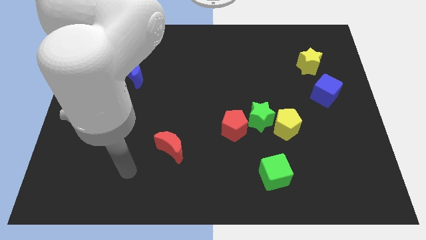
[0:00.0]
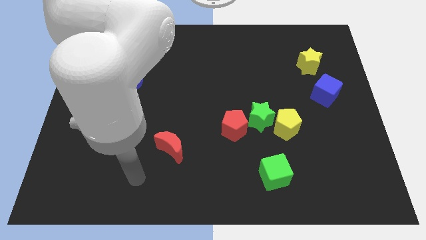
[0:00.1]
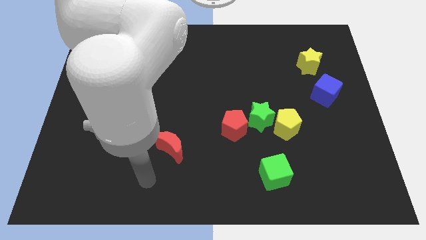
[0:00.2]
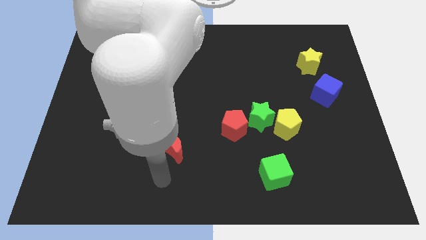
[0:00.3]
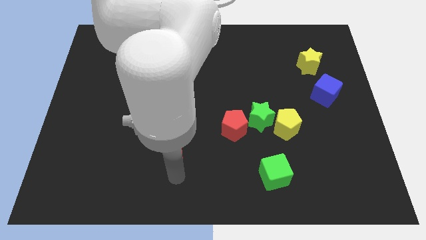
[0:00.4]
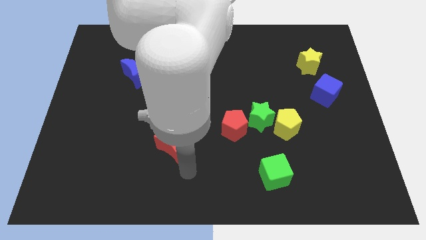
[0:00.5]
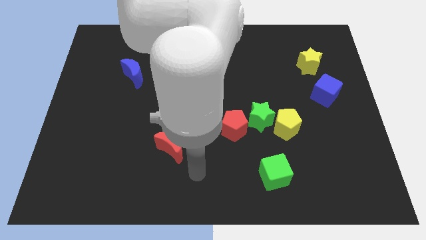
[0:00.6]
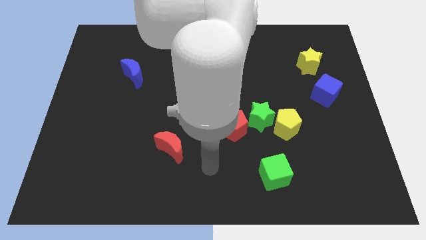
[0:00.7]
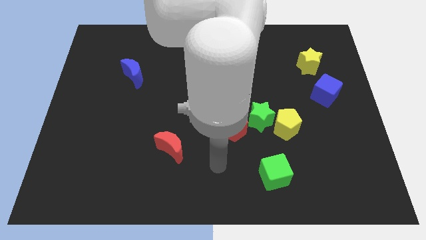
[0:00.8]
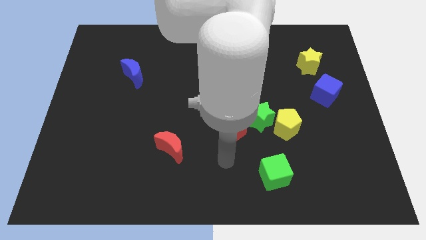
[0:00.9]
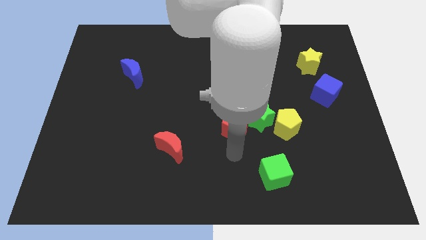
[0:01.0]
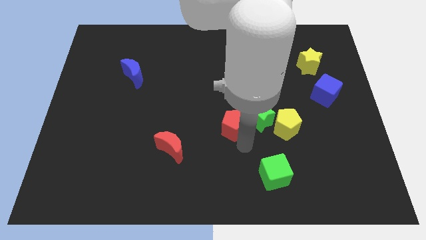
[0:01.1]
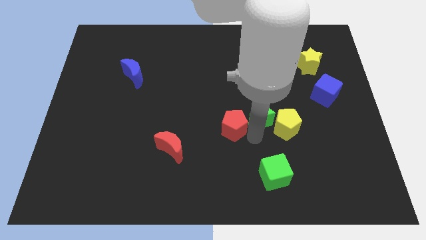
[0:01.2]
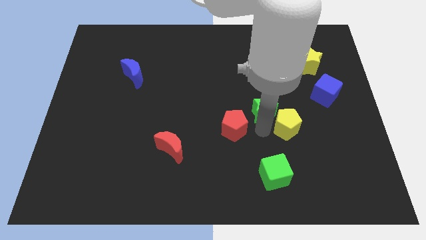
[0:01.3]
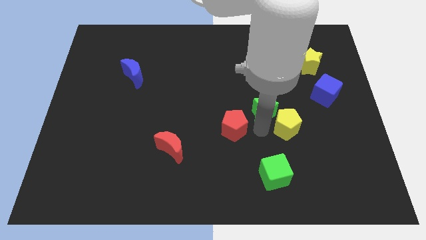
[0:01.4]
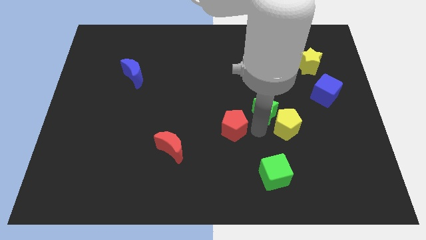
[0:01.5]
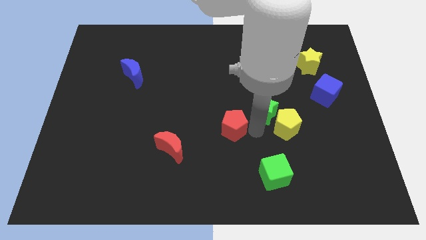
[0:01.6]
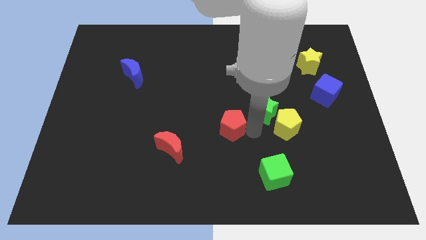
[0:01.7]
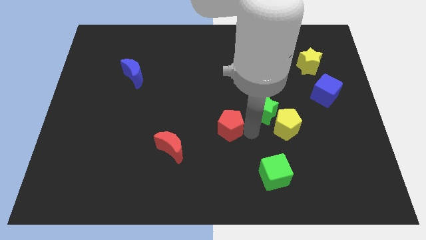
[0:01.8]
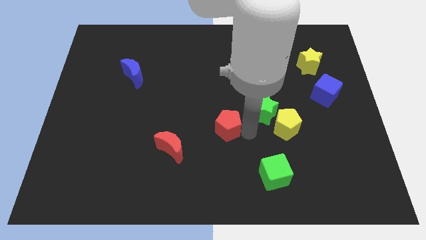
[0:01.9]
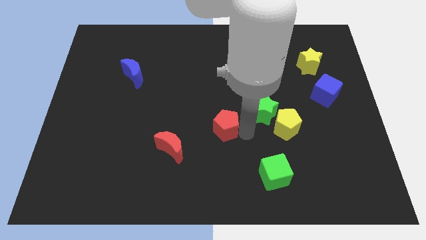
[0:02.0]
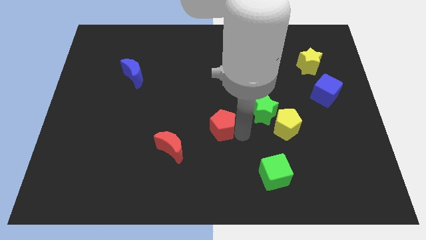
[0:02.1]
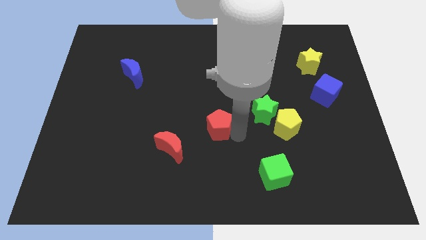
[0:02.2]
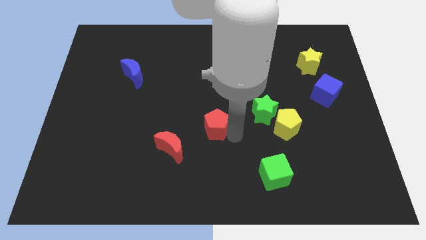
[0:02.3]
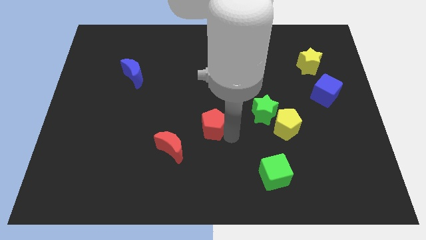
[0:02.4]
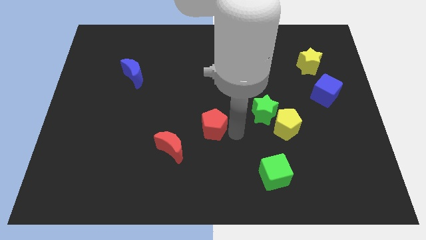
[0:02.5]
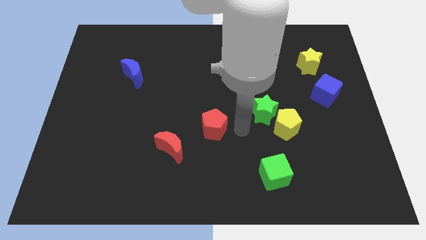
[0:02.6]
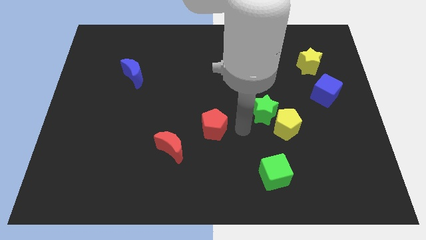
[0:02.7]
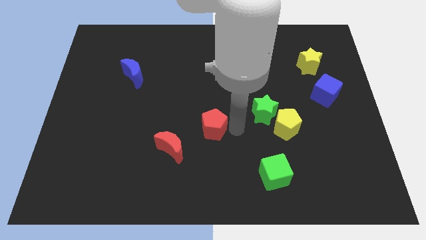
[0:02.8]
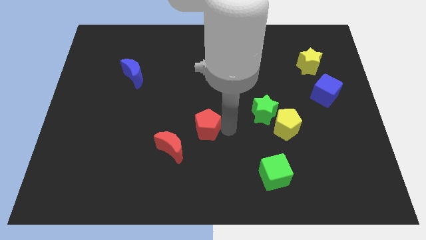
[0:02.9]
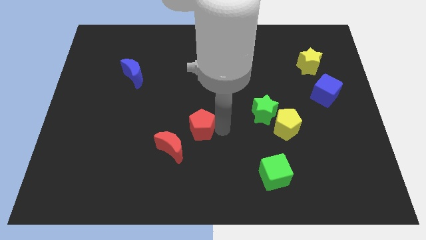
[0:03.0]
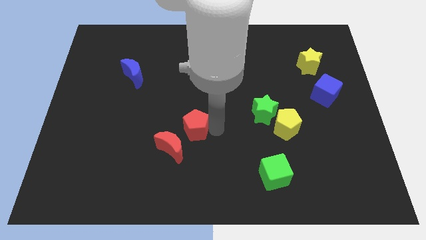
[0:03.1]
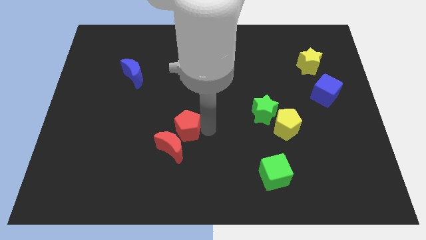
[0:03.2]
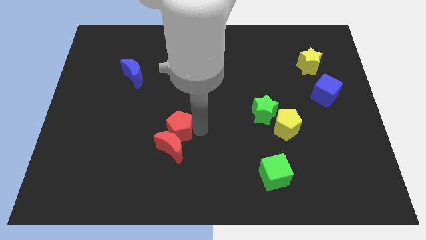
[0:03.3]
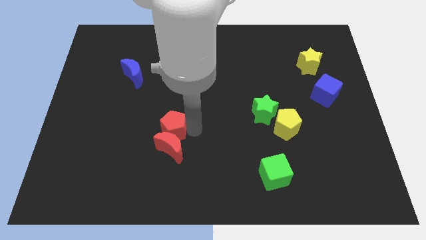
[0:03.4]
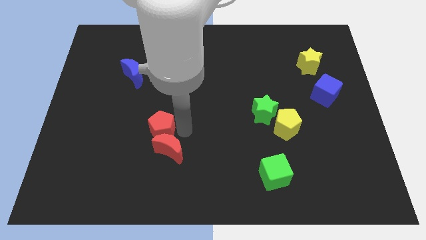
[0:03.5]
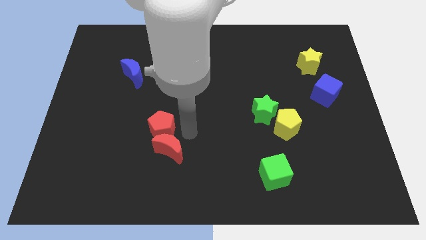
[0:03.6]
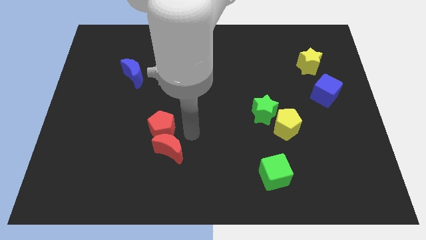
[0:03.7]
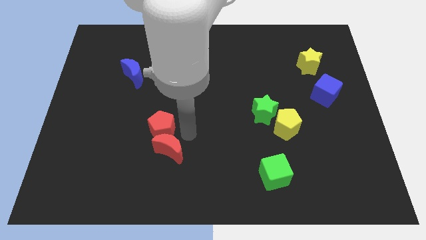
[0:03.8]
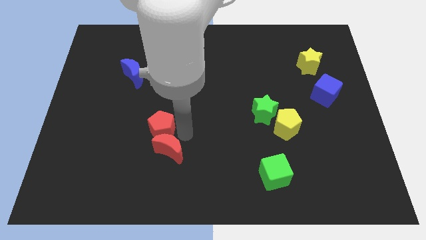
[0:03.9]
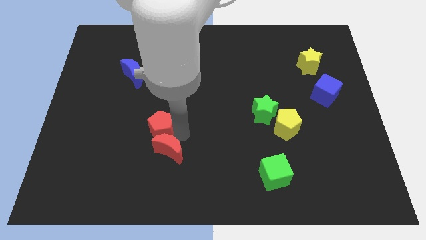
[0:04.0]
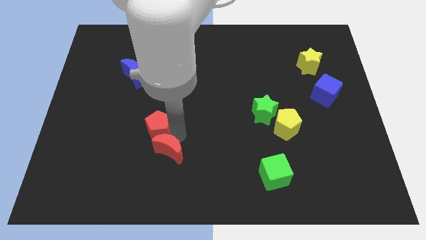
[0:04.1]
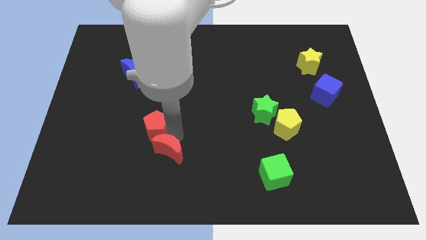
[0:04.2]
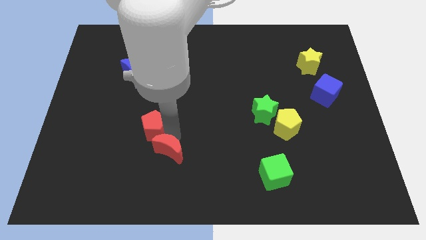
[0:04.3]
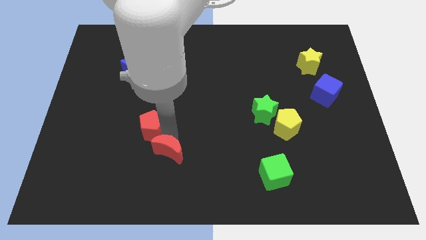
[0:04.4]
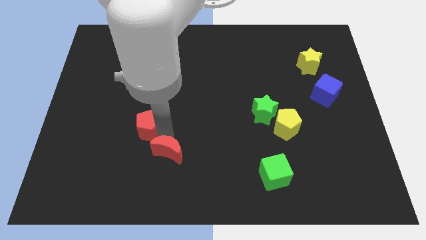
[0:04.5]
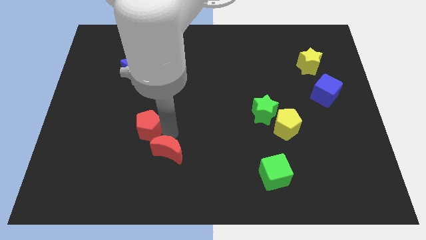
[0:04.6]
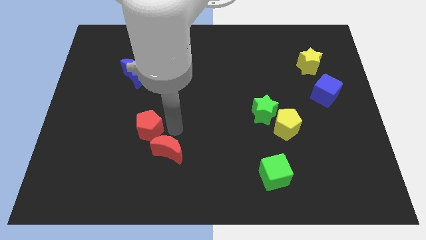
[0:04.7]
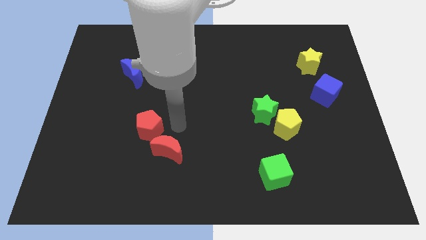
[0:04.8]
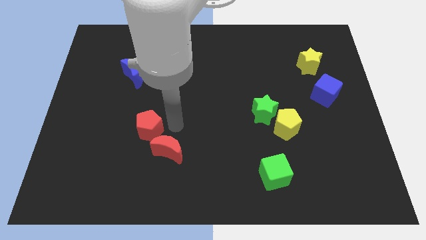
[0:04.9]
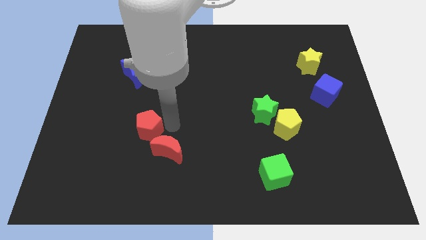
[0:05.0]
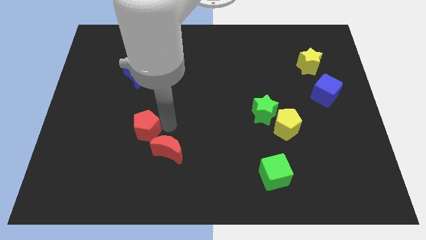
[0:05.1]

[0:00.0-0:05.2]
move the red pentagon left

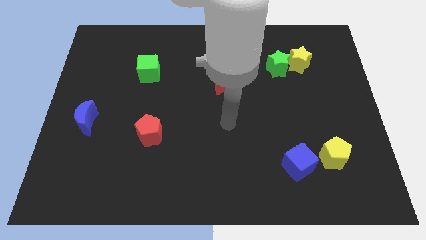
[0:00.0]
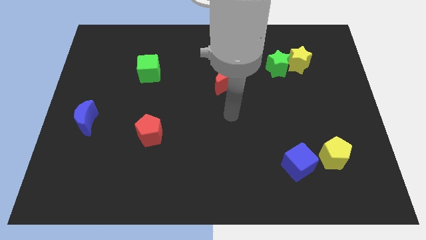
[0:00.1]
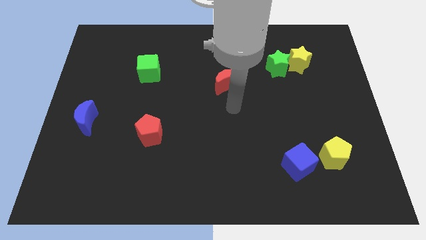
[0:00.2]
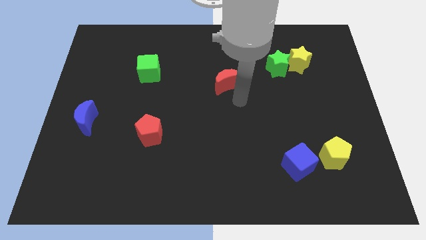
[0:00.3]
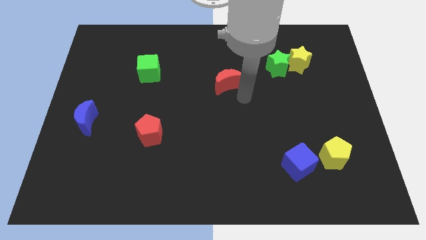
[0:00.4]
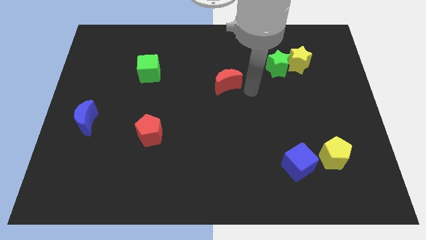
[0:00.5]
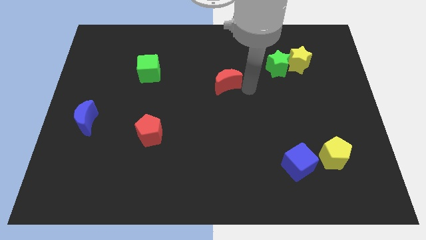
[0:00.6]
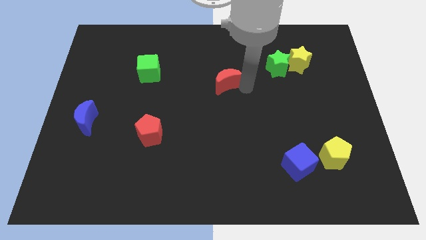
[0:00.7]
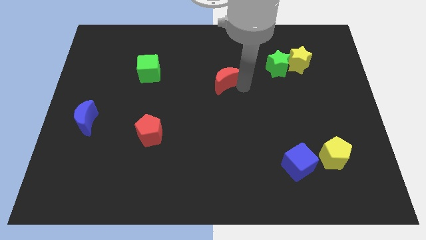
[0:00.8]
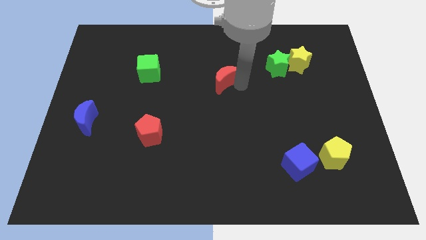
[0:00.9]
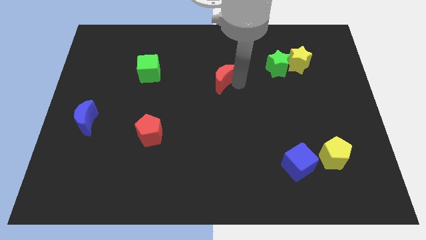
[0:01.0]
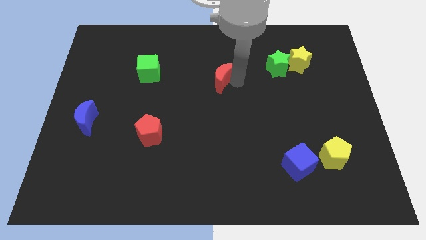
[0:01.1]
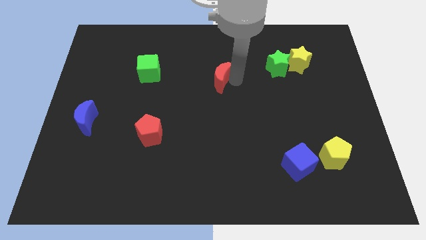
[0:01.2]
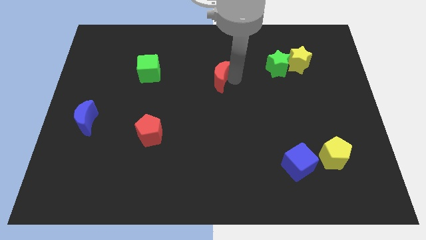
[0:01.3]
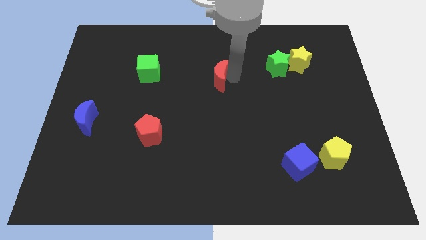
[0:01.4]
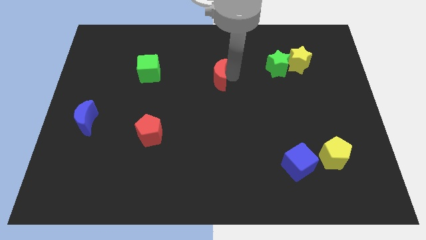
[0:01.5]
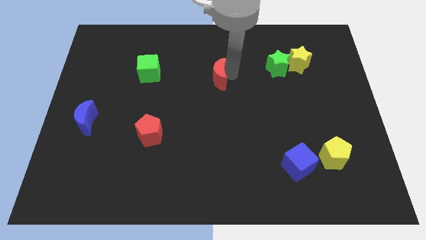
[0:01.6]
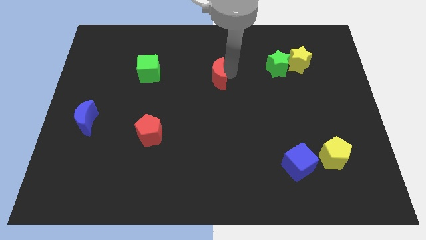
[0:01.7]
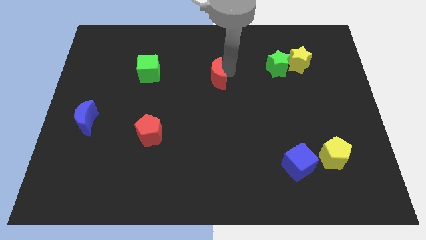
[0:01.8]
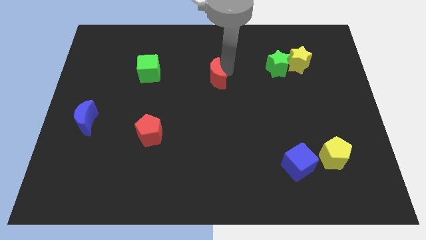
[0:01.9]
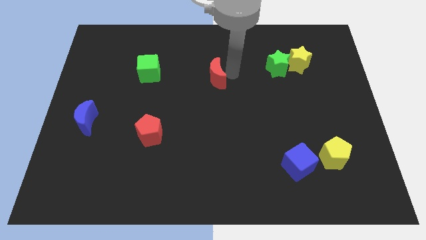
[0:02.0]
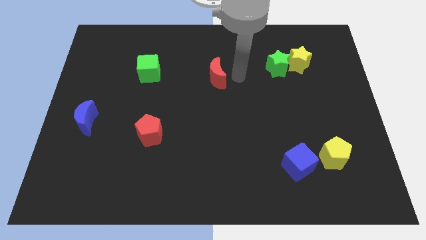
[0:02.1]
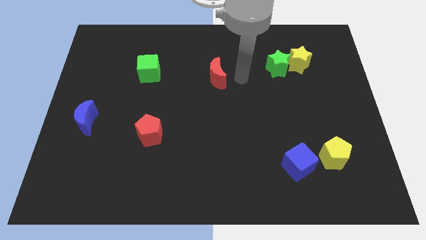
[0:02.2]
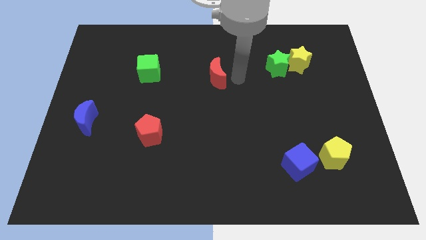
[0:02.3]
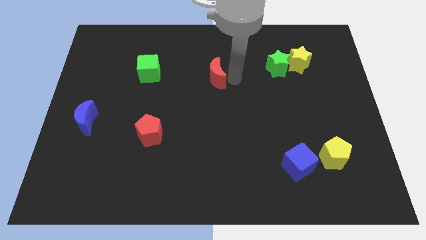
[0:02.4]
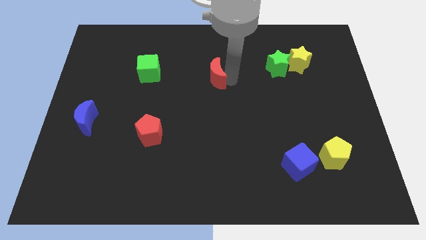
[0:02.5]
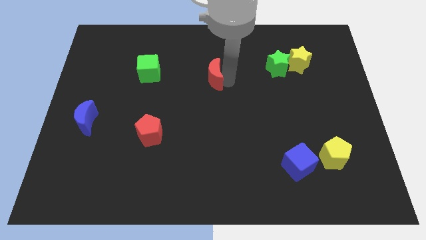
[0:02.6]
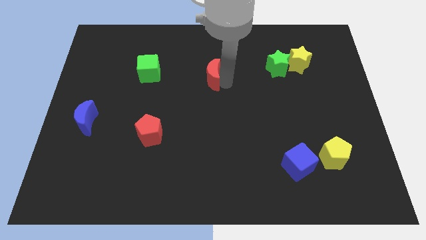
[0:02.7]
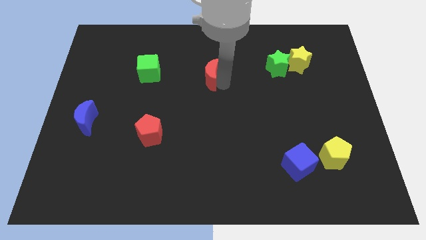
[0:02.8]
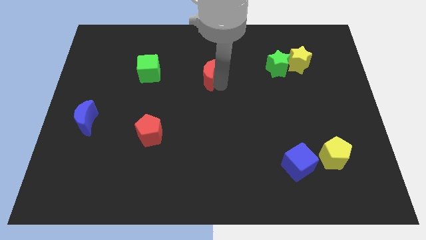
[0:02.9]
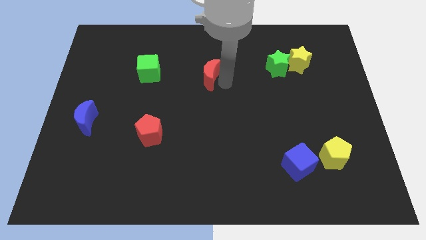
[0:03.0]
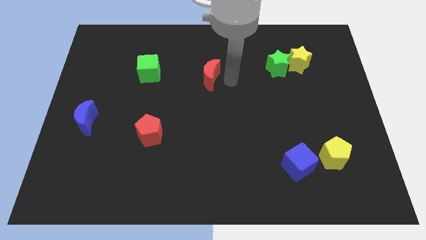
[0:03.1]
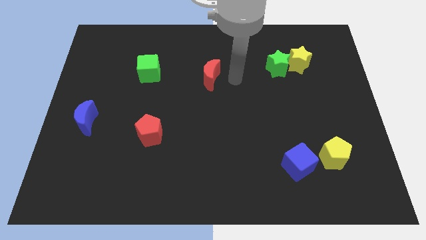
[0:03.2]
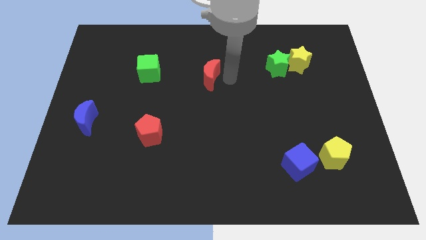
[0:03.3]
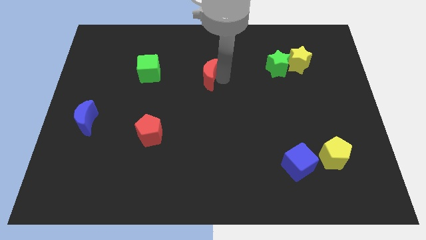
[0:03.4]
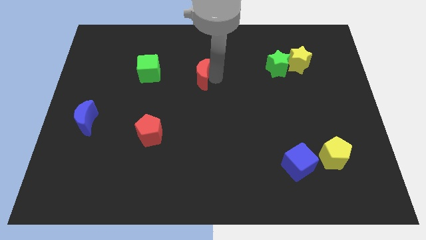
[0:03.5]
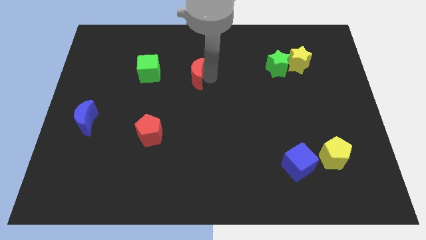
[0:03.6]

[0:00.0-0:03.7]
slightly push the red moon left
